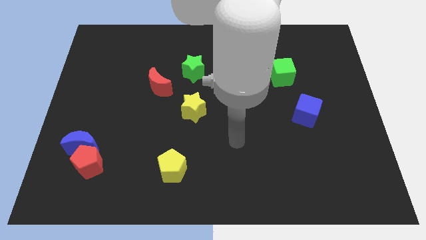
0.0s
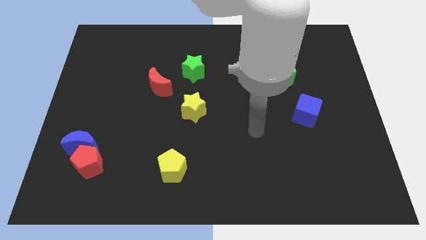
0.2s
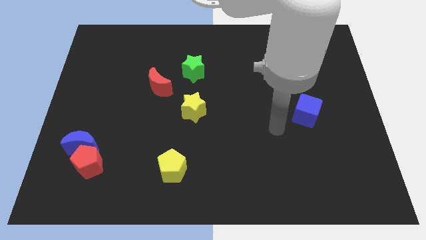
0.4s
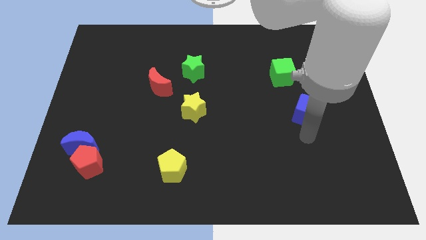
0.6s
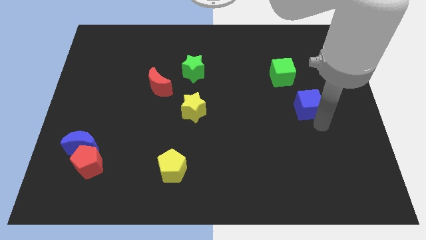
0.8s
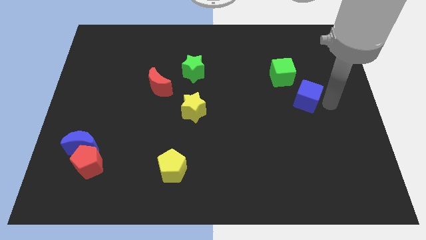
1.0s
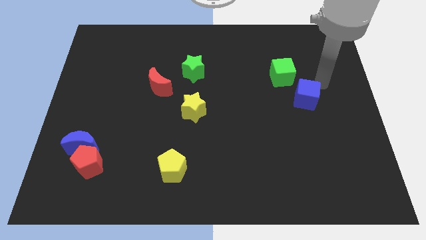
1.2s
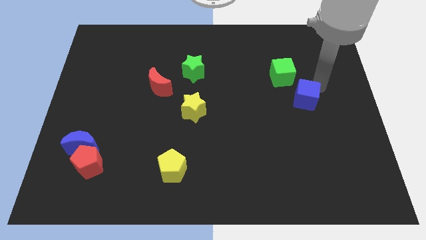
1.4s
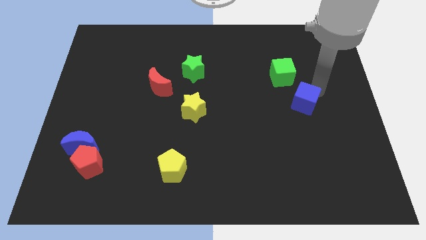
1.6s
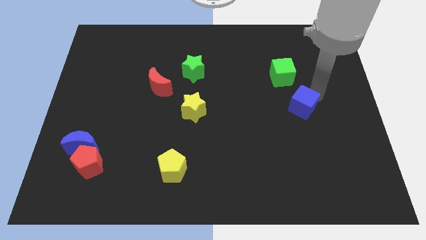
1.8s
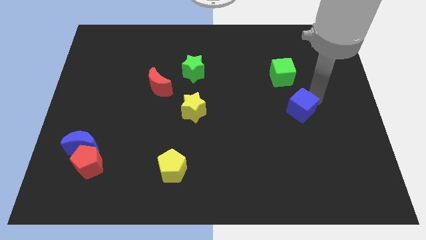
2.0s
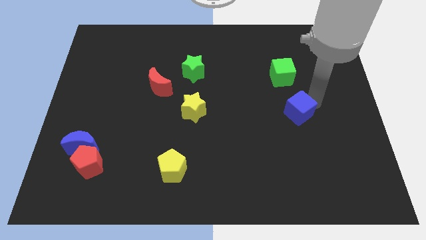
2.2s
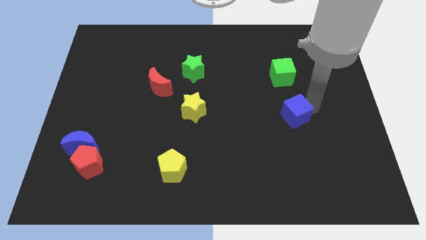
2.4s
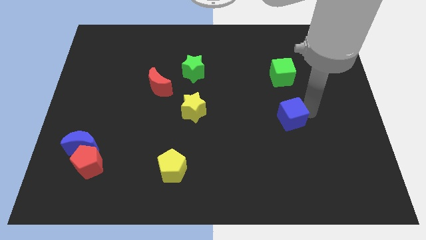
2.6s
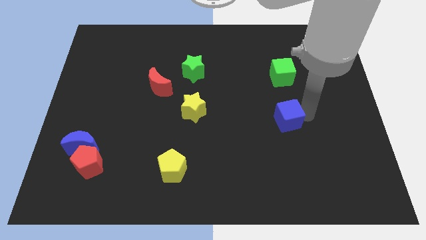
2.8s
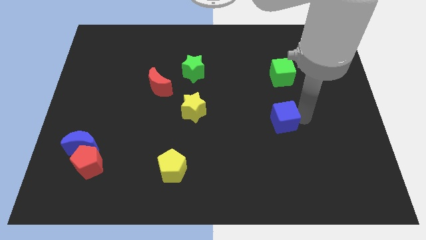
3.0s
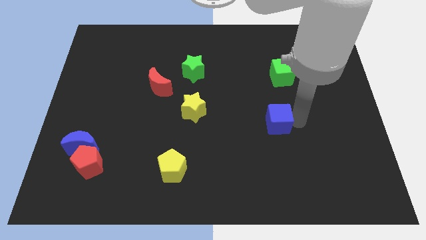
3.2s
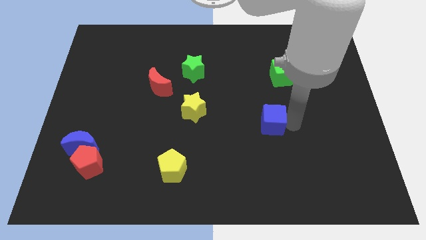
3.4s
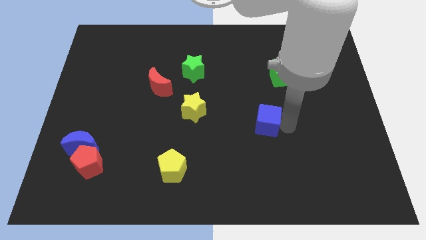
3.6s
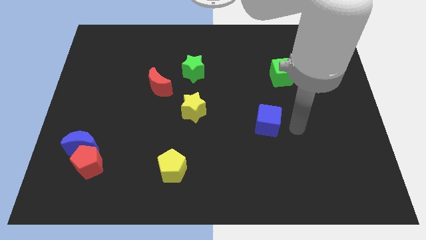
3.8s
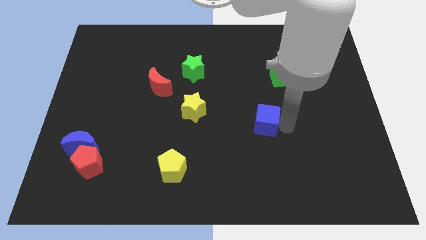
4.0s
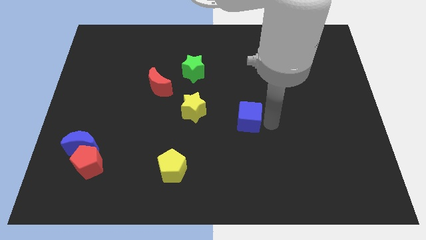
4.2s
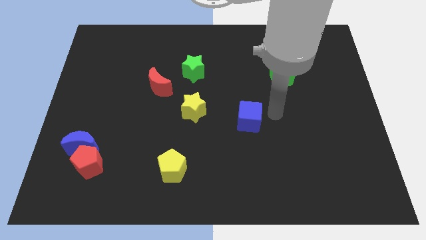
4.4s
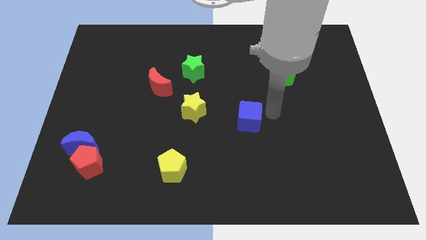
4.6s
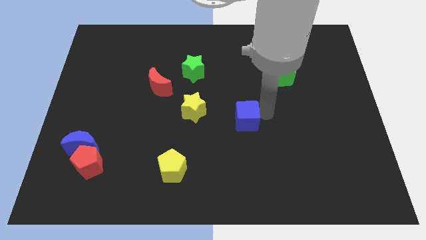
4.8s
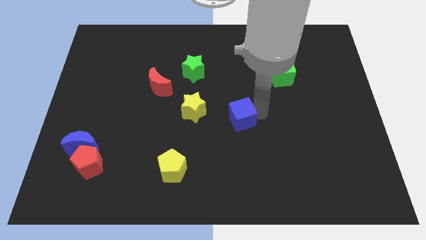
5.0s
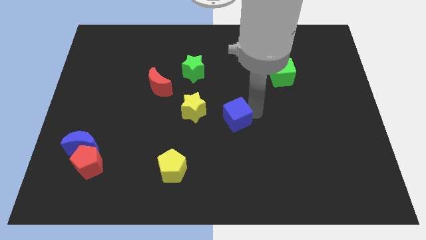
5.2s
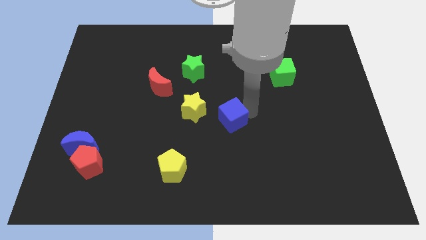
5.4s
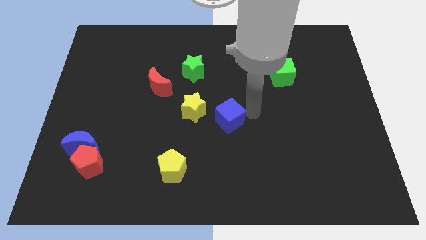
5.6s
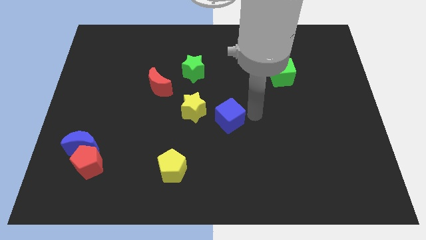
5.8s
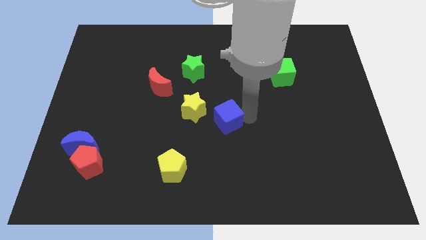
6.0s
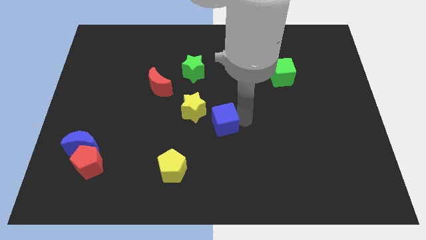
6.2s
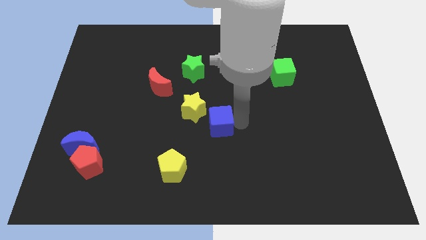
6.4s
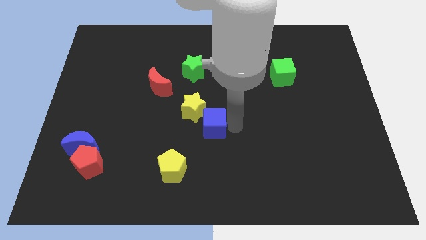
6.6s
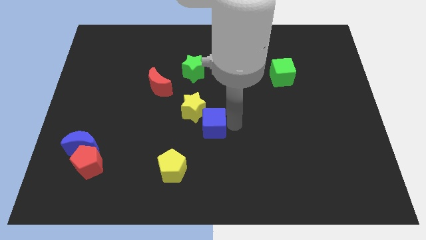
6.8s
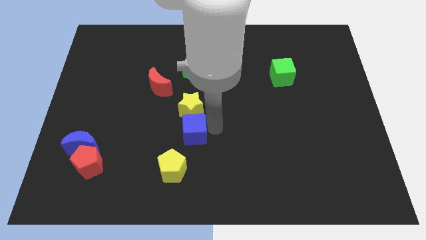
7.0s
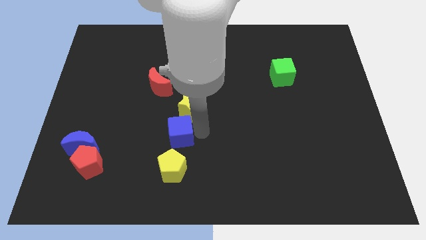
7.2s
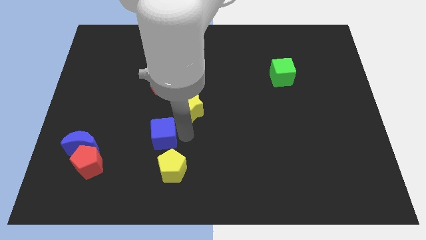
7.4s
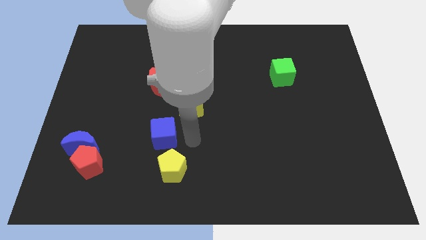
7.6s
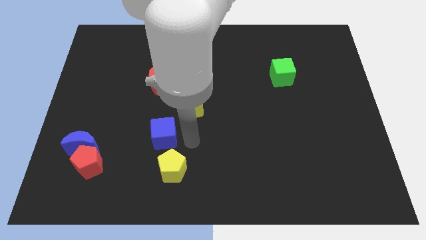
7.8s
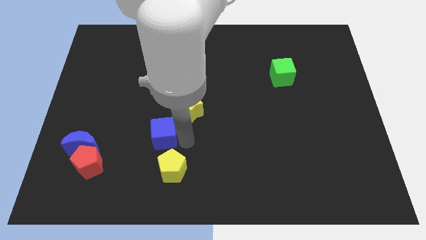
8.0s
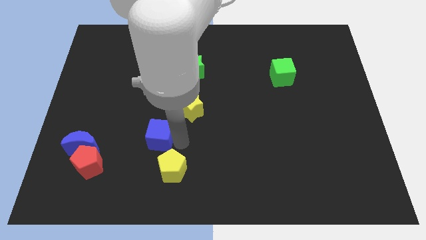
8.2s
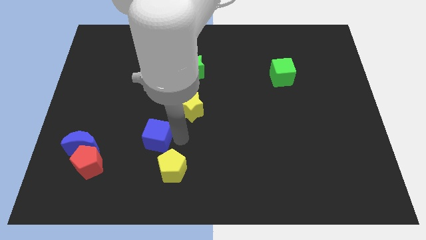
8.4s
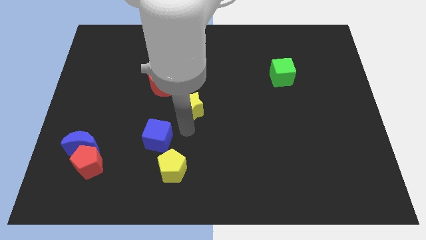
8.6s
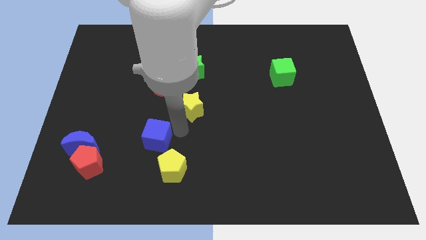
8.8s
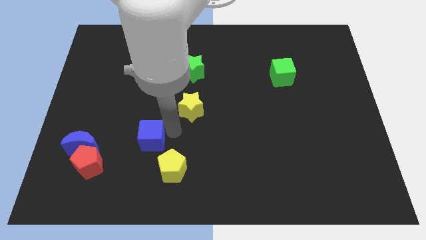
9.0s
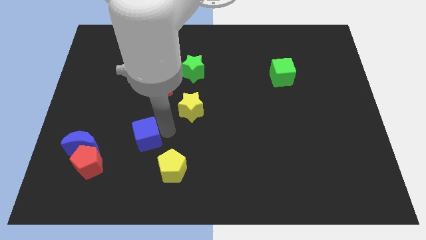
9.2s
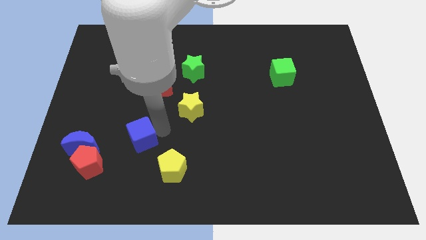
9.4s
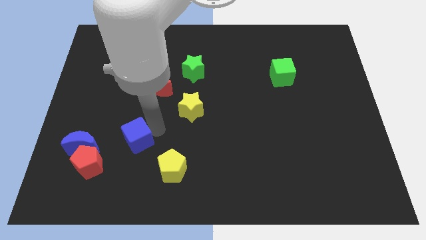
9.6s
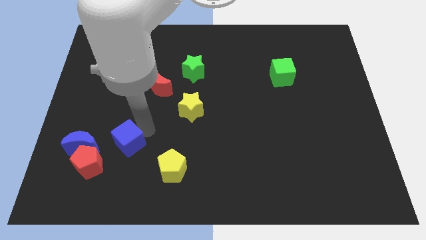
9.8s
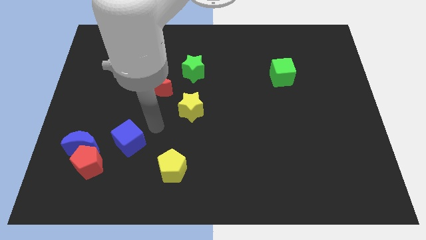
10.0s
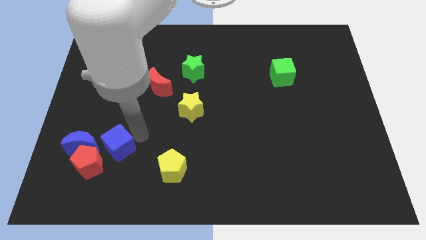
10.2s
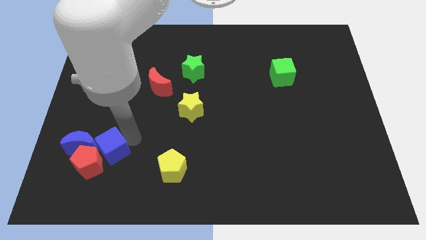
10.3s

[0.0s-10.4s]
slide the blue cube towards the red pentagon

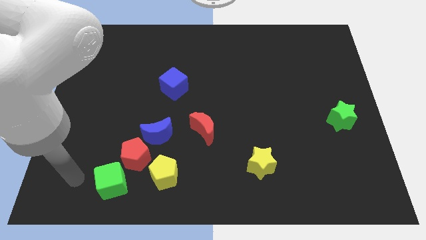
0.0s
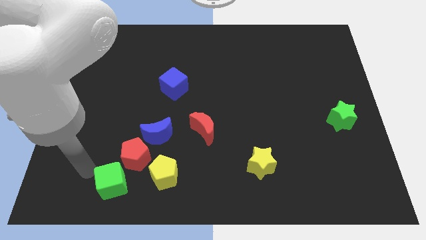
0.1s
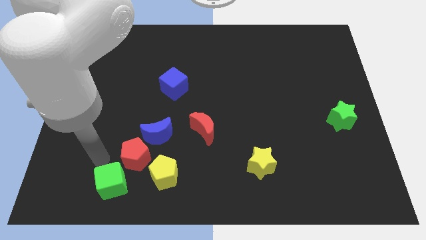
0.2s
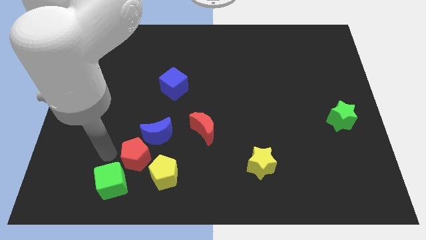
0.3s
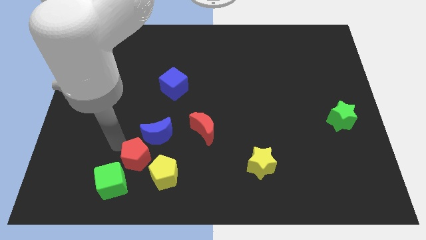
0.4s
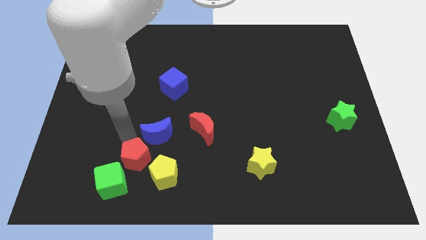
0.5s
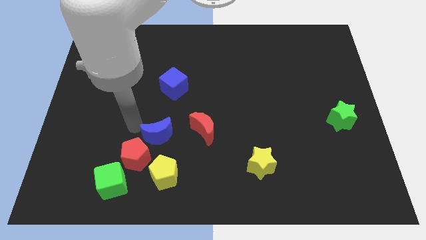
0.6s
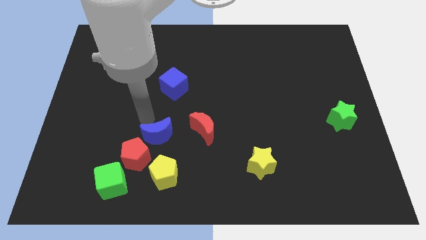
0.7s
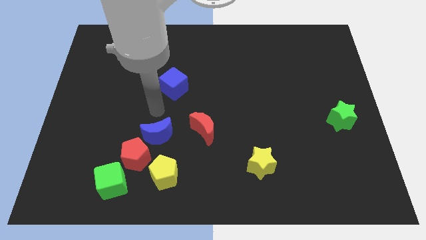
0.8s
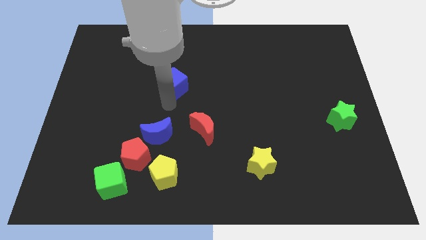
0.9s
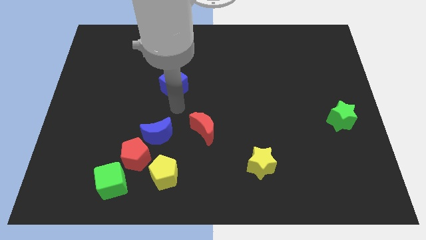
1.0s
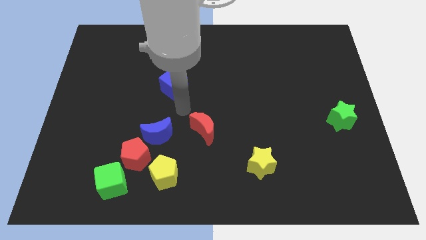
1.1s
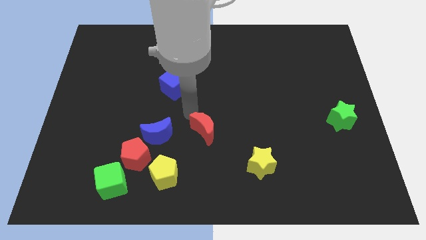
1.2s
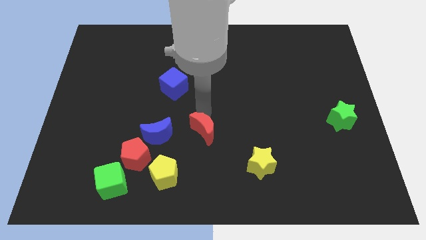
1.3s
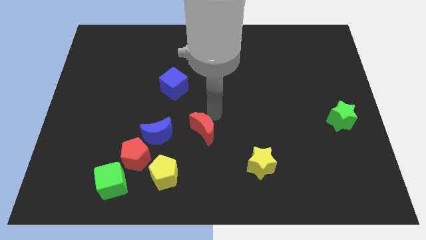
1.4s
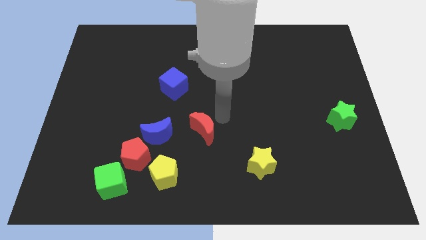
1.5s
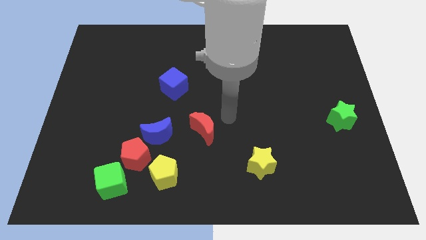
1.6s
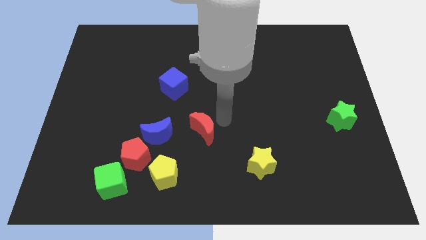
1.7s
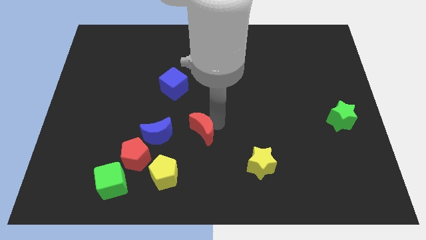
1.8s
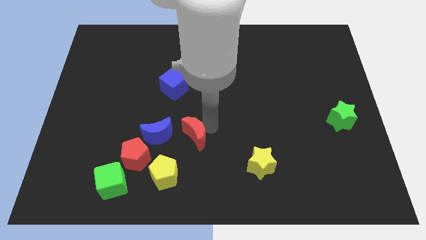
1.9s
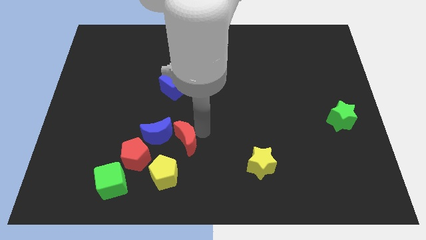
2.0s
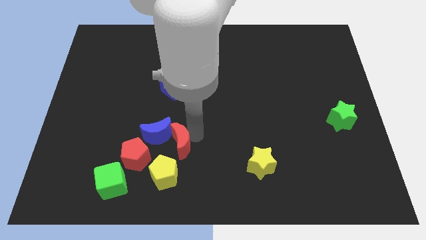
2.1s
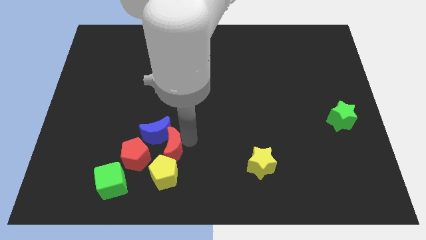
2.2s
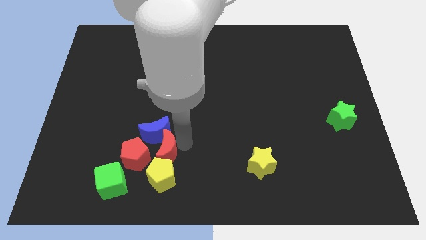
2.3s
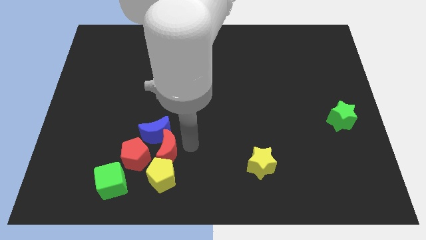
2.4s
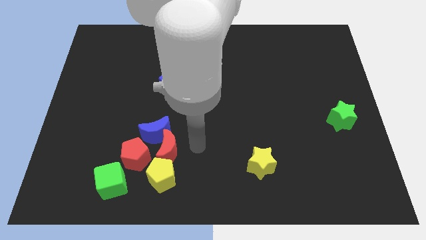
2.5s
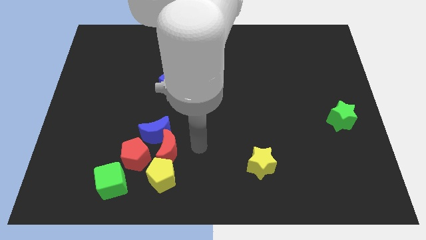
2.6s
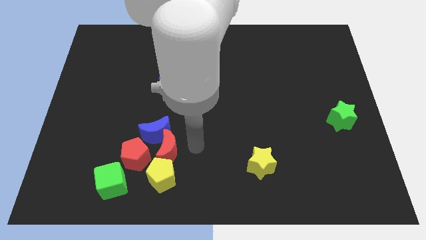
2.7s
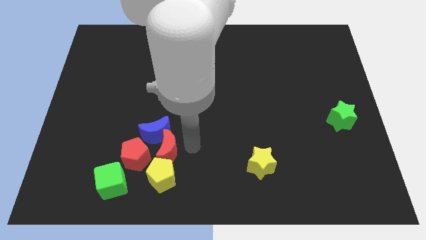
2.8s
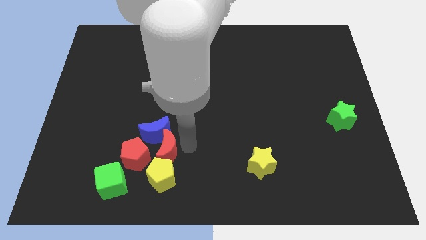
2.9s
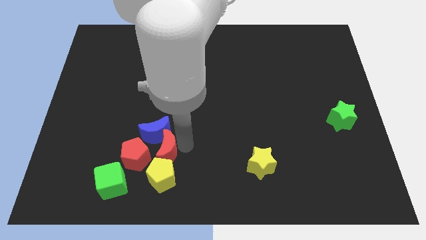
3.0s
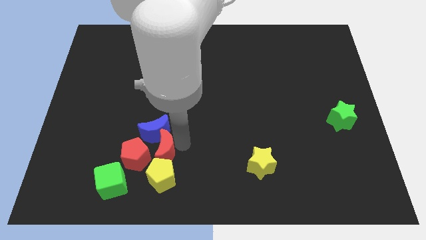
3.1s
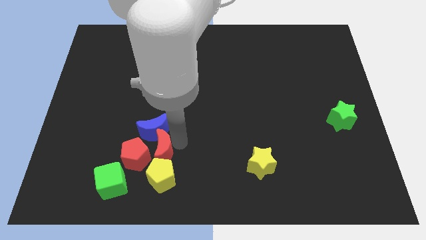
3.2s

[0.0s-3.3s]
slide the red moon to the red pentagon
